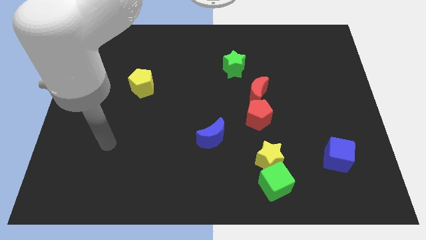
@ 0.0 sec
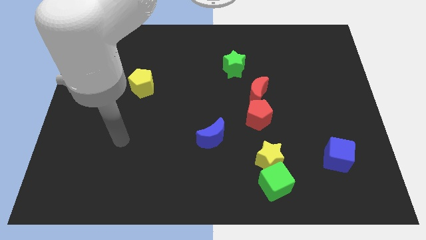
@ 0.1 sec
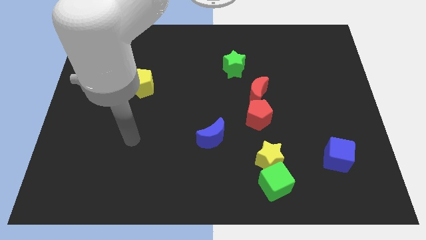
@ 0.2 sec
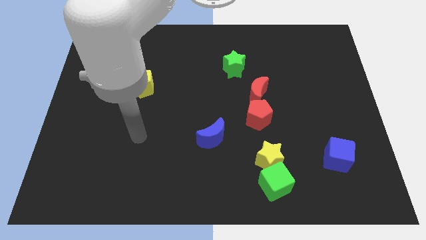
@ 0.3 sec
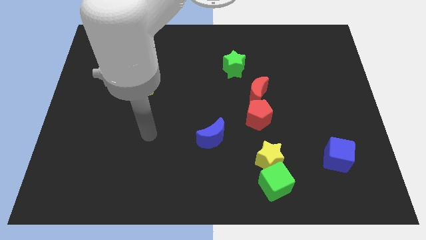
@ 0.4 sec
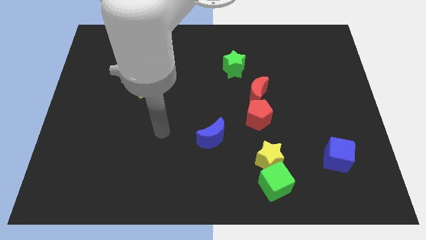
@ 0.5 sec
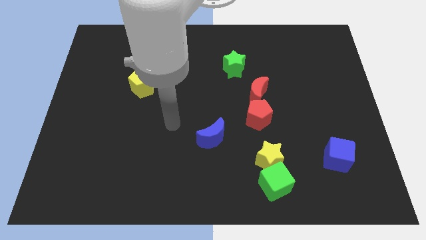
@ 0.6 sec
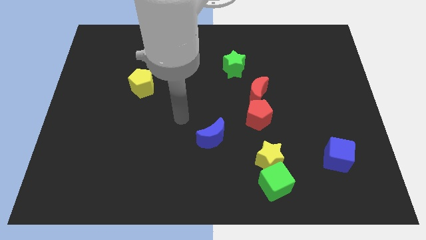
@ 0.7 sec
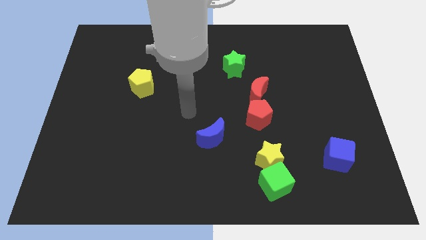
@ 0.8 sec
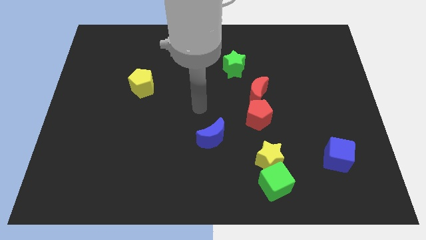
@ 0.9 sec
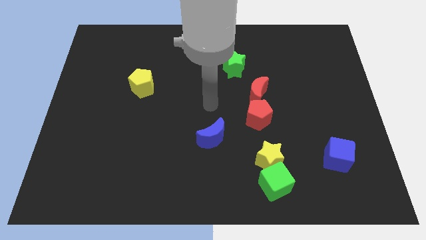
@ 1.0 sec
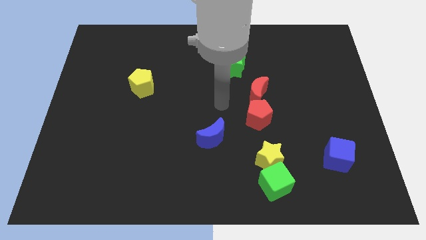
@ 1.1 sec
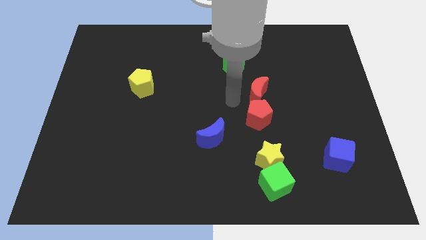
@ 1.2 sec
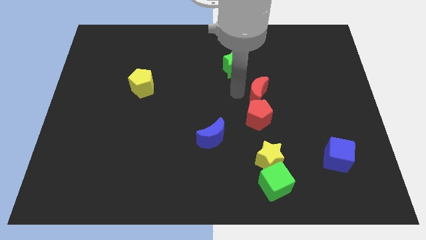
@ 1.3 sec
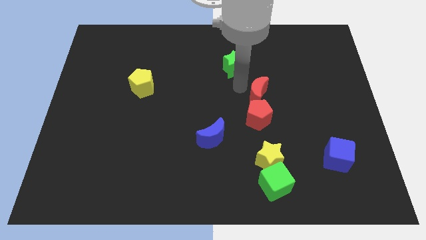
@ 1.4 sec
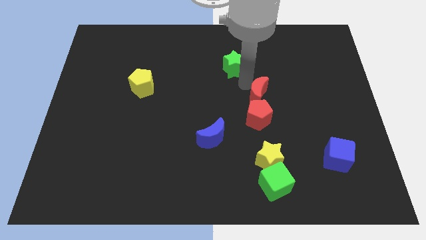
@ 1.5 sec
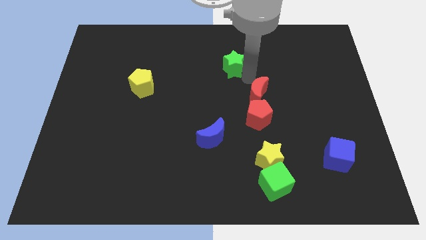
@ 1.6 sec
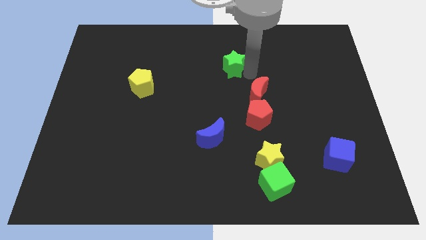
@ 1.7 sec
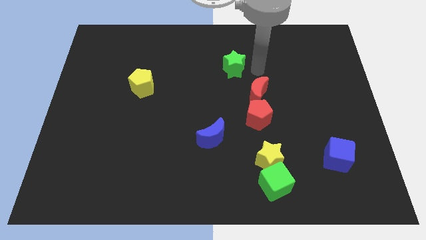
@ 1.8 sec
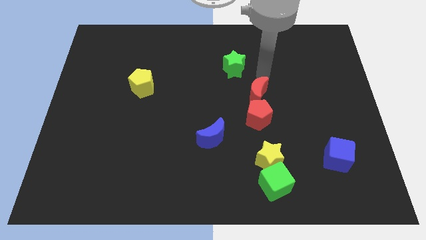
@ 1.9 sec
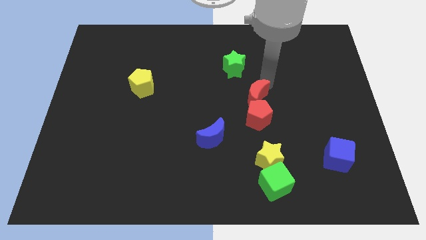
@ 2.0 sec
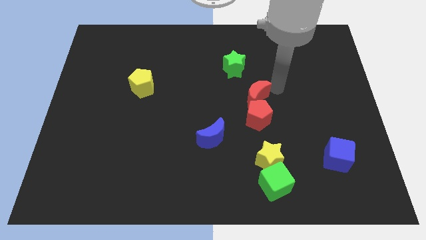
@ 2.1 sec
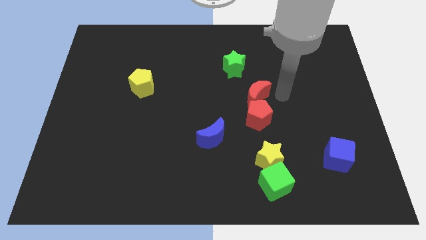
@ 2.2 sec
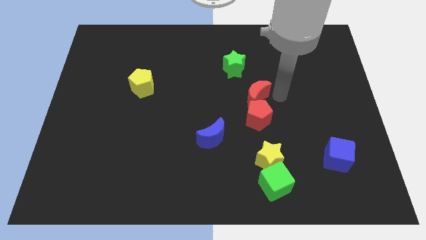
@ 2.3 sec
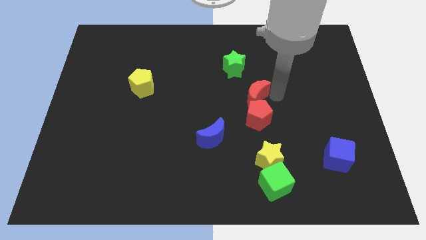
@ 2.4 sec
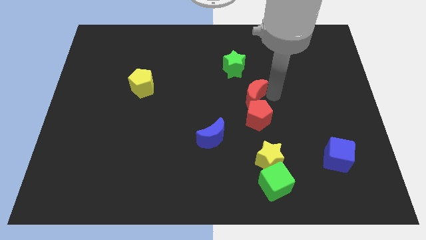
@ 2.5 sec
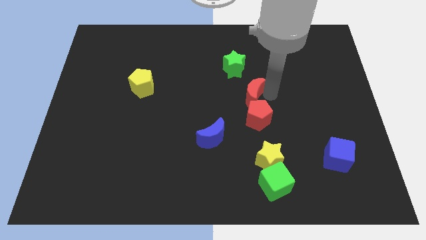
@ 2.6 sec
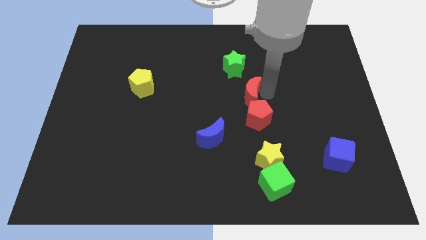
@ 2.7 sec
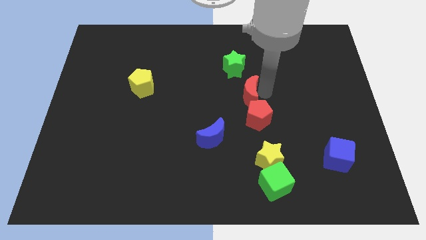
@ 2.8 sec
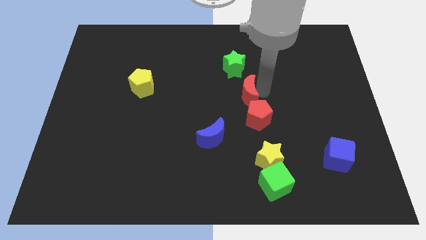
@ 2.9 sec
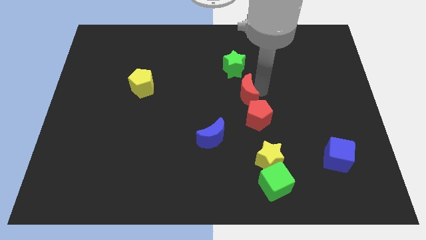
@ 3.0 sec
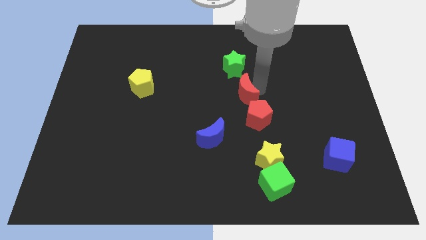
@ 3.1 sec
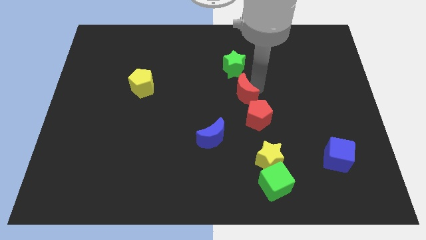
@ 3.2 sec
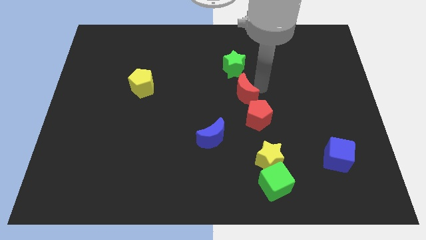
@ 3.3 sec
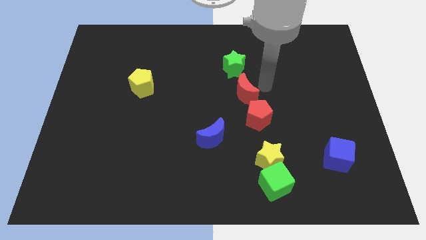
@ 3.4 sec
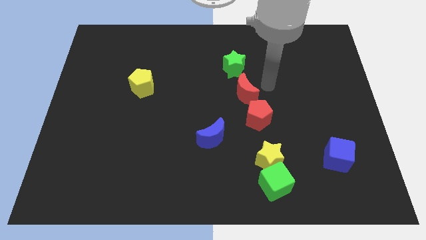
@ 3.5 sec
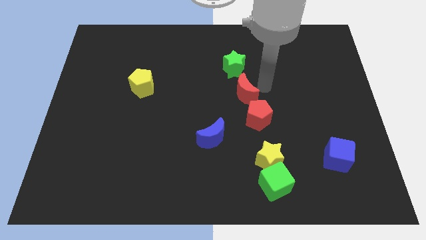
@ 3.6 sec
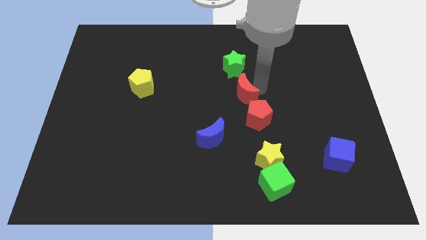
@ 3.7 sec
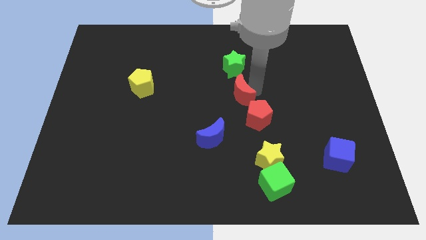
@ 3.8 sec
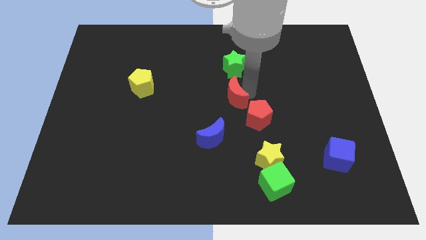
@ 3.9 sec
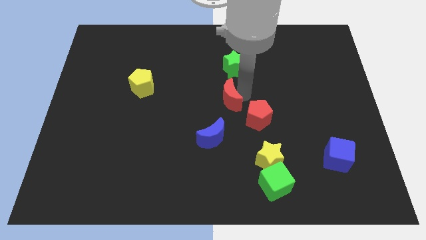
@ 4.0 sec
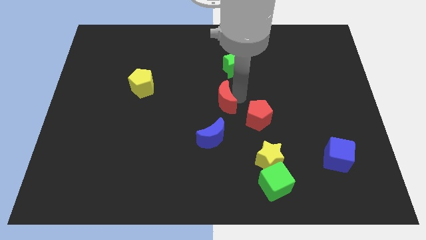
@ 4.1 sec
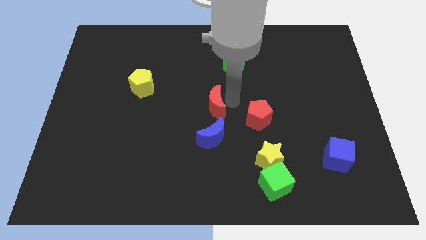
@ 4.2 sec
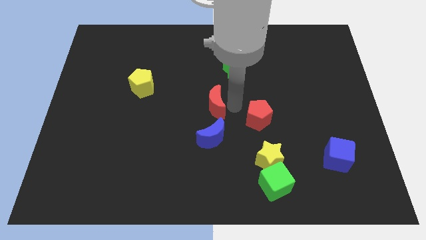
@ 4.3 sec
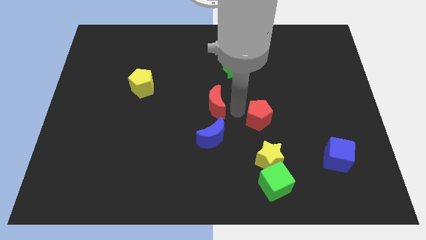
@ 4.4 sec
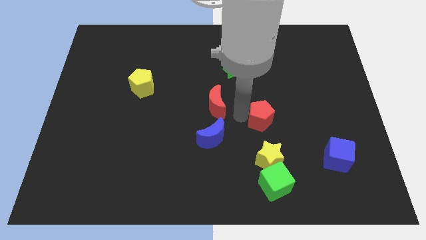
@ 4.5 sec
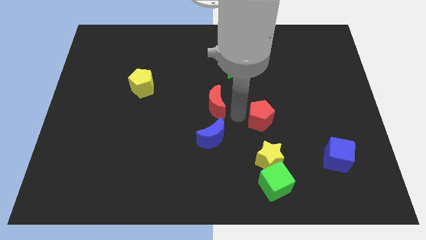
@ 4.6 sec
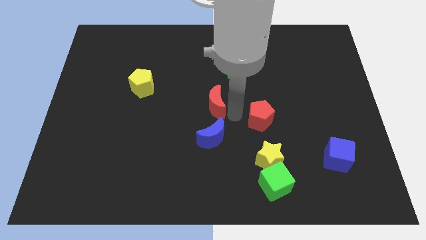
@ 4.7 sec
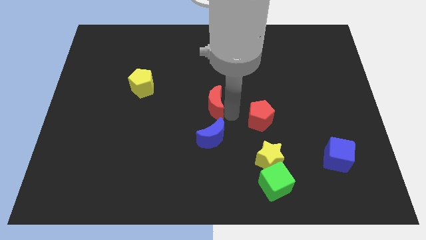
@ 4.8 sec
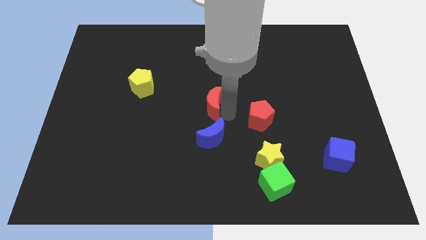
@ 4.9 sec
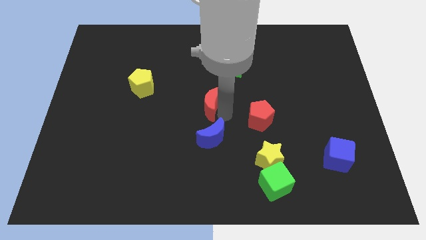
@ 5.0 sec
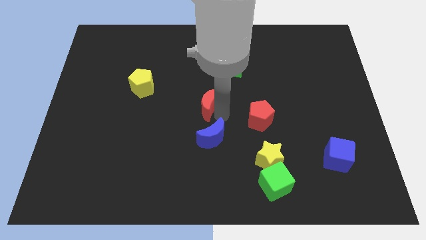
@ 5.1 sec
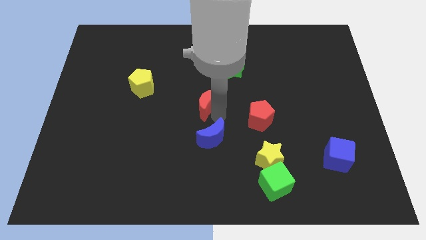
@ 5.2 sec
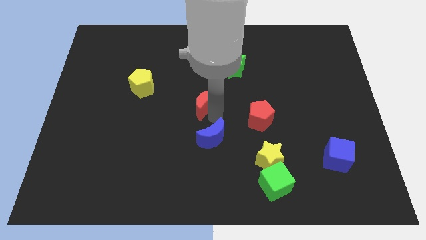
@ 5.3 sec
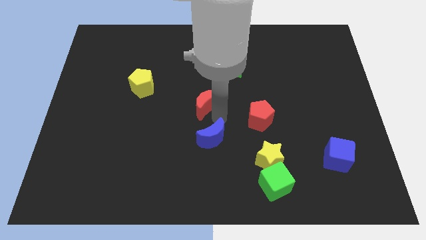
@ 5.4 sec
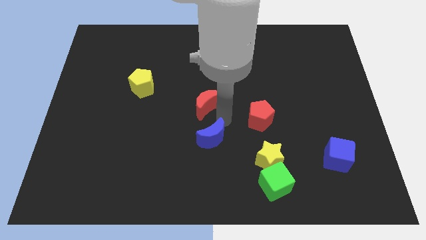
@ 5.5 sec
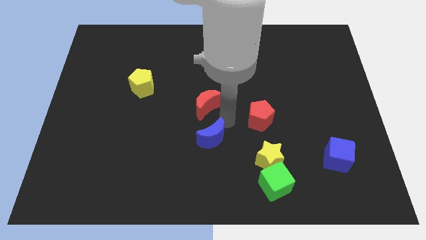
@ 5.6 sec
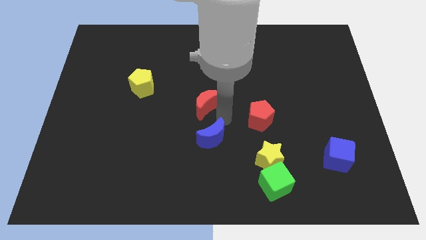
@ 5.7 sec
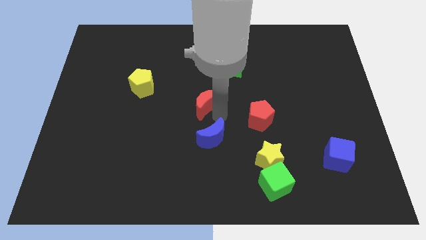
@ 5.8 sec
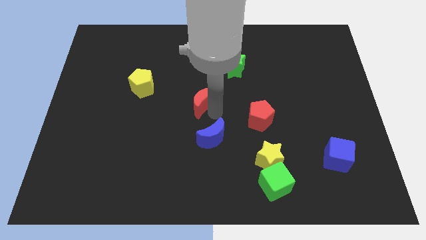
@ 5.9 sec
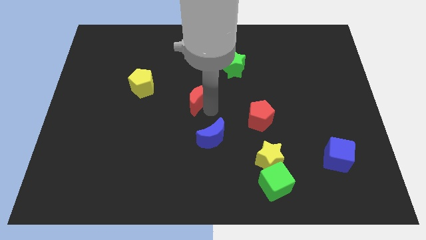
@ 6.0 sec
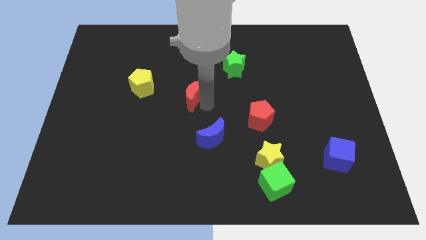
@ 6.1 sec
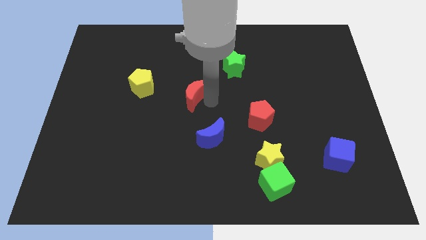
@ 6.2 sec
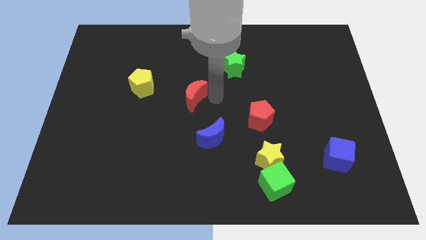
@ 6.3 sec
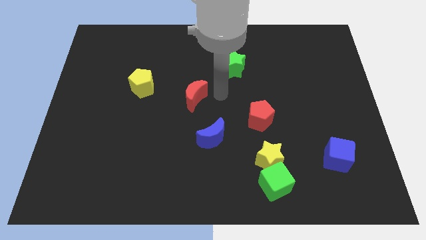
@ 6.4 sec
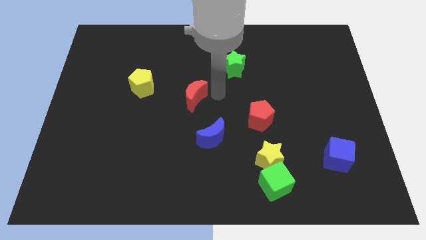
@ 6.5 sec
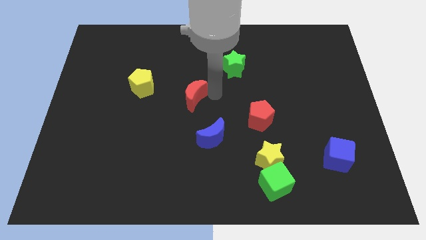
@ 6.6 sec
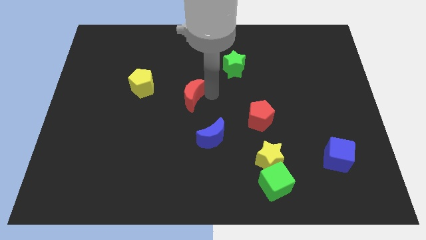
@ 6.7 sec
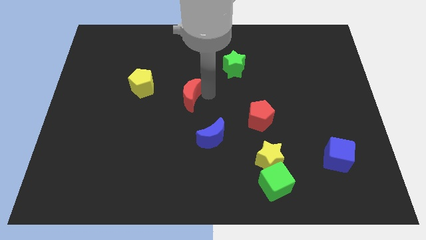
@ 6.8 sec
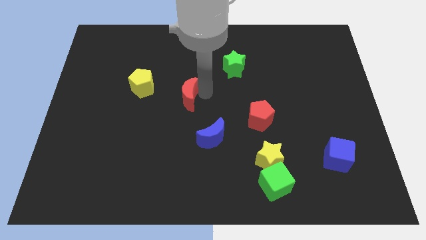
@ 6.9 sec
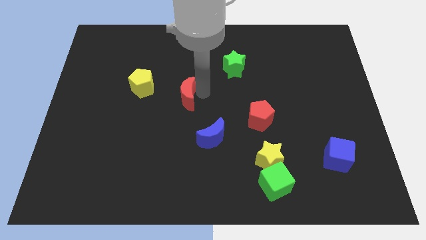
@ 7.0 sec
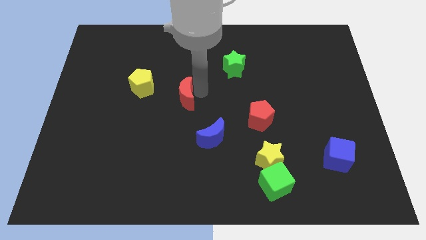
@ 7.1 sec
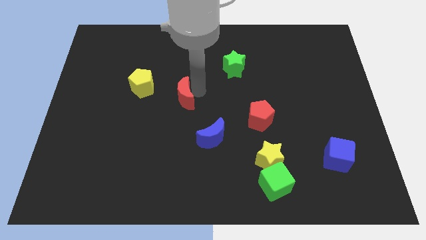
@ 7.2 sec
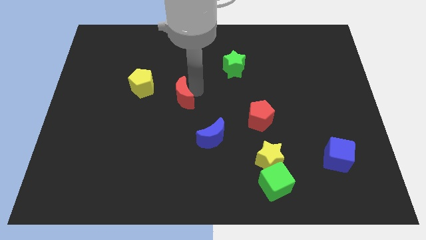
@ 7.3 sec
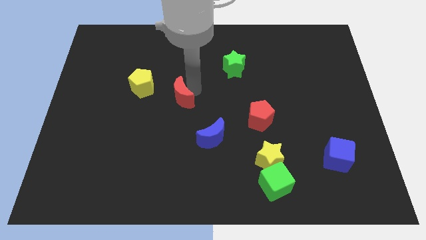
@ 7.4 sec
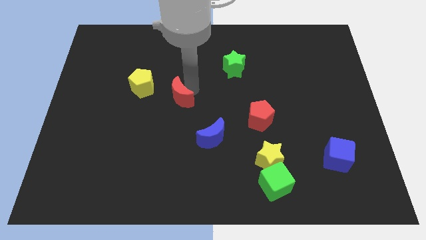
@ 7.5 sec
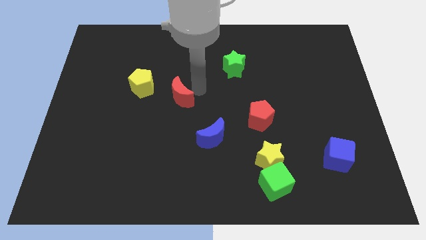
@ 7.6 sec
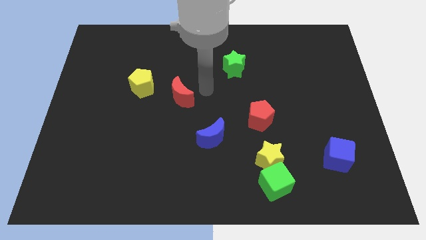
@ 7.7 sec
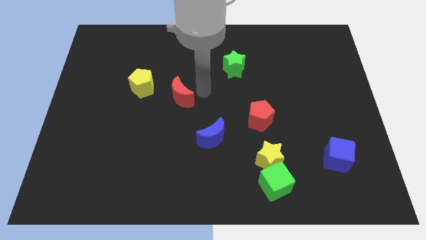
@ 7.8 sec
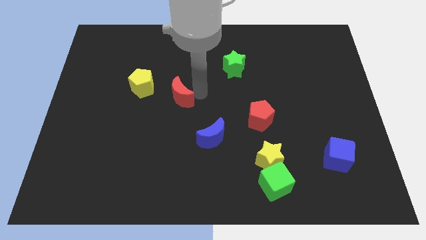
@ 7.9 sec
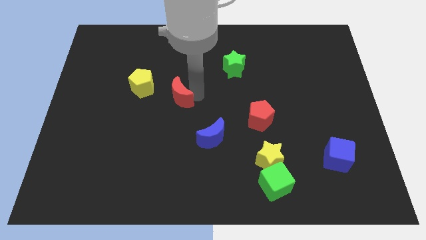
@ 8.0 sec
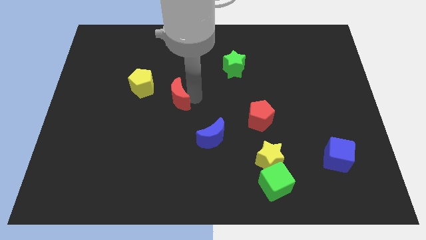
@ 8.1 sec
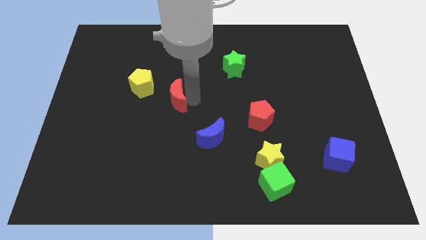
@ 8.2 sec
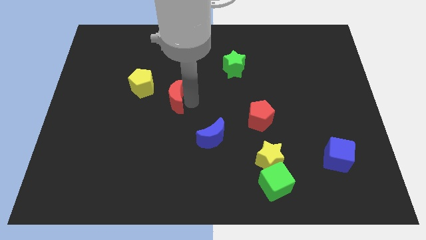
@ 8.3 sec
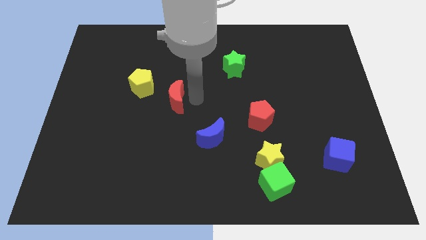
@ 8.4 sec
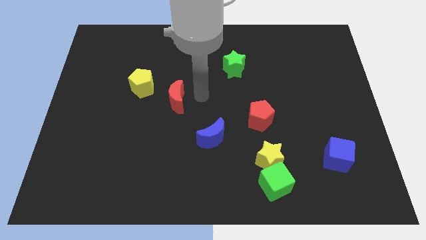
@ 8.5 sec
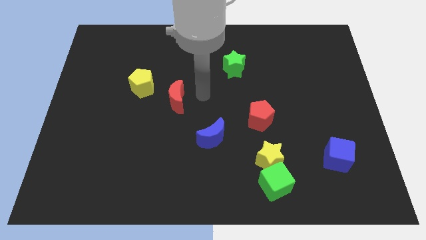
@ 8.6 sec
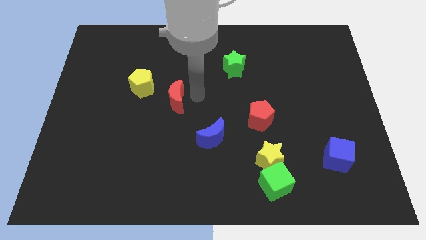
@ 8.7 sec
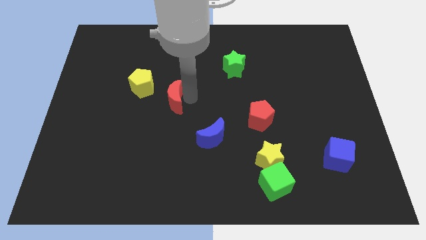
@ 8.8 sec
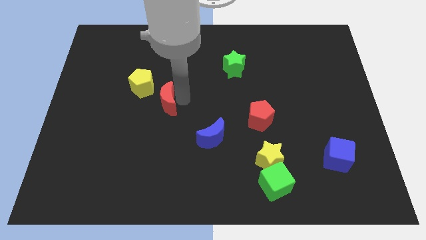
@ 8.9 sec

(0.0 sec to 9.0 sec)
slide the red moon to the left
